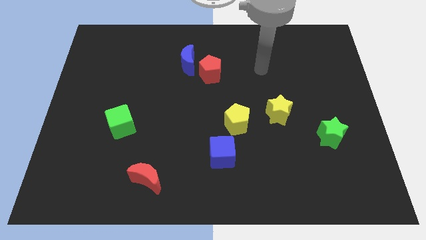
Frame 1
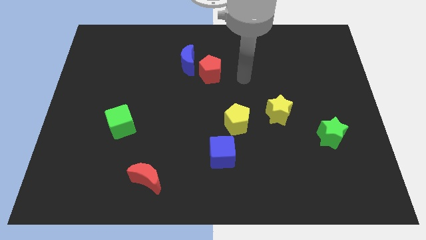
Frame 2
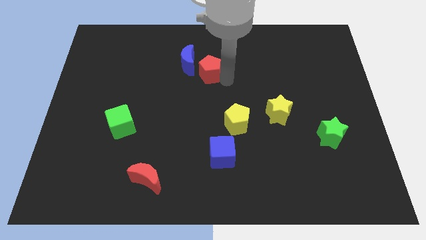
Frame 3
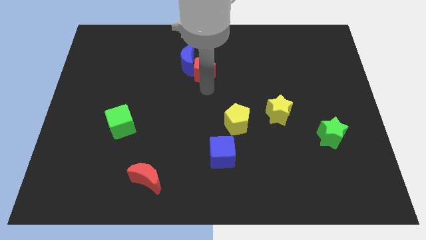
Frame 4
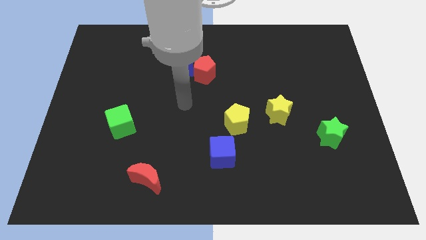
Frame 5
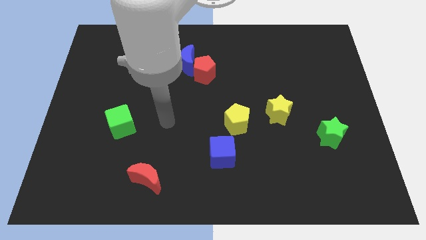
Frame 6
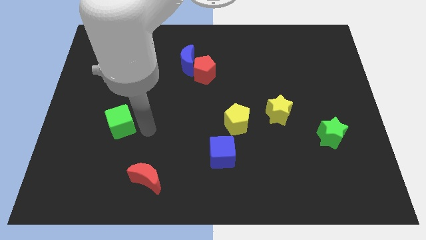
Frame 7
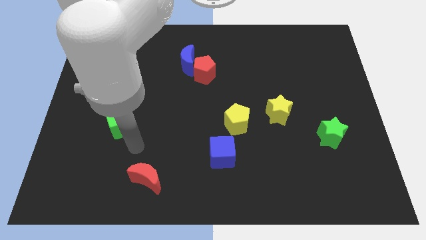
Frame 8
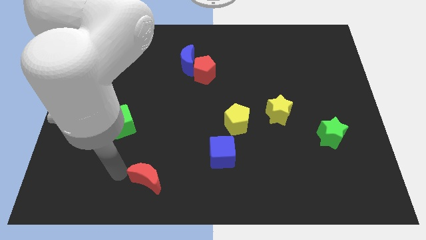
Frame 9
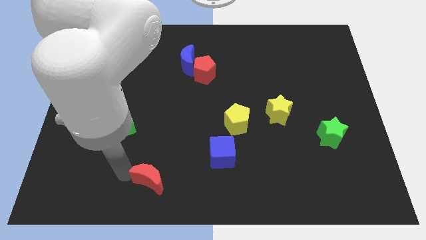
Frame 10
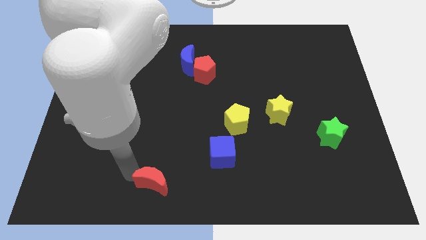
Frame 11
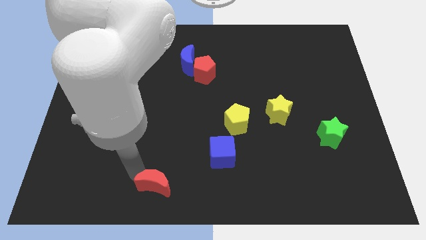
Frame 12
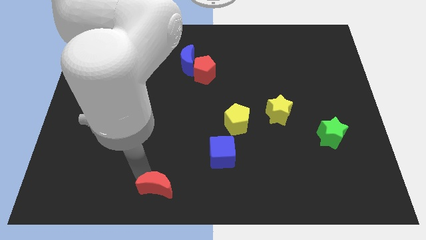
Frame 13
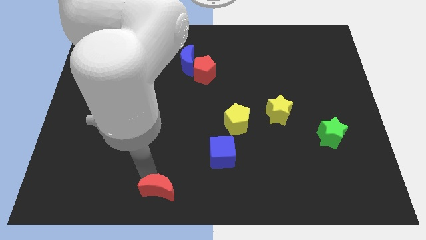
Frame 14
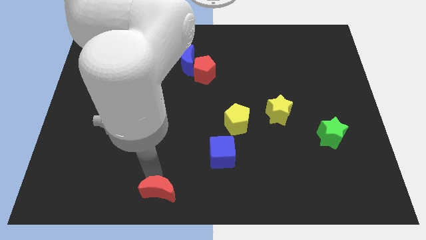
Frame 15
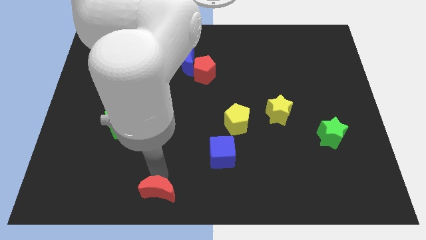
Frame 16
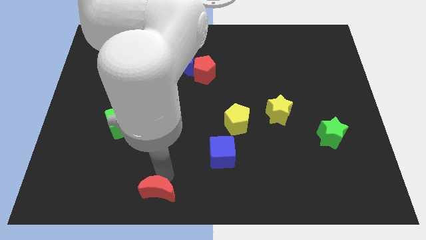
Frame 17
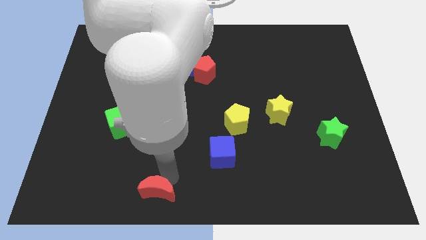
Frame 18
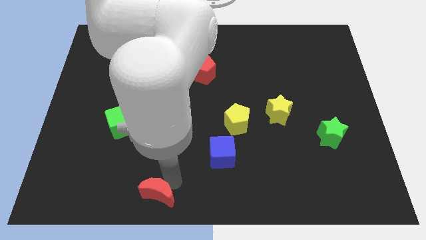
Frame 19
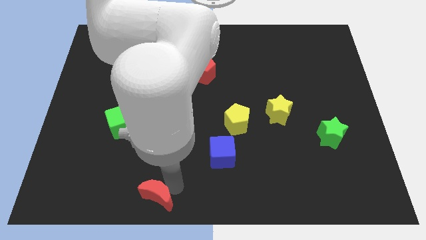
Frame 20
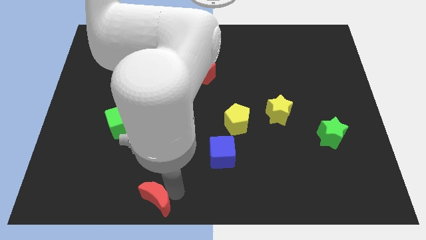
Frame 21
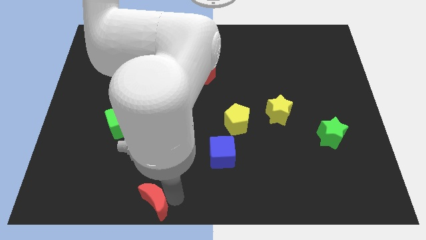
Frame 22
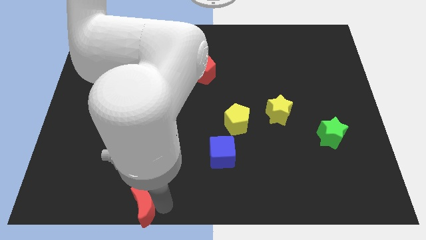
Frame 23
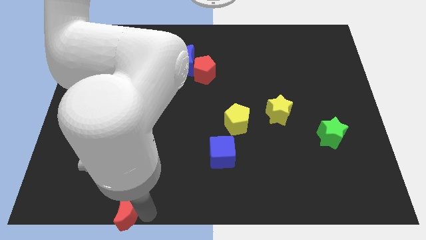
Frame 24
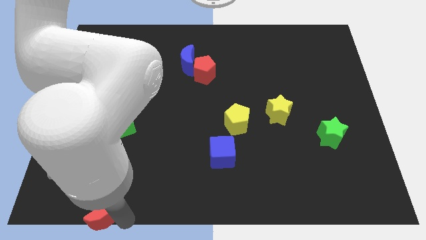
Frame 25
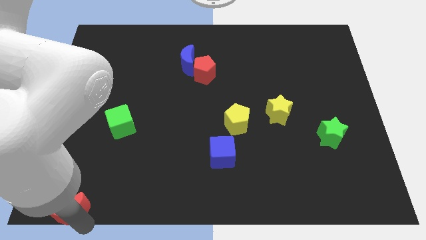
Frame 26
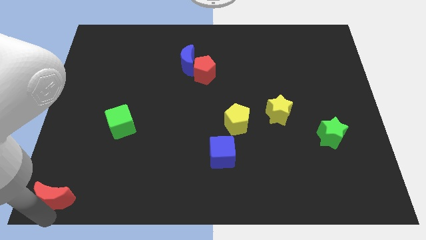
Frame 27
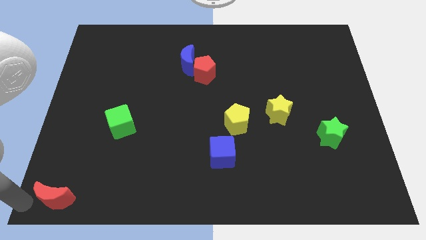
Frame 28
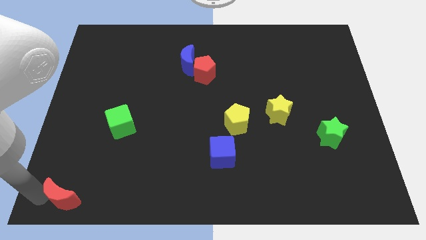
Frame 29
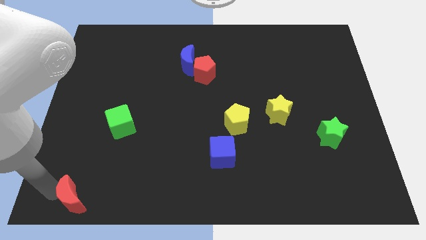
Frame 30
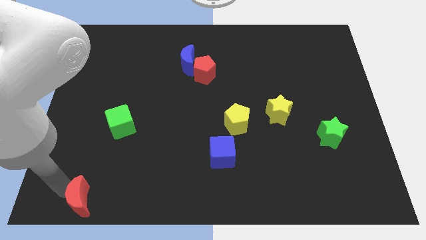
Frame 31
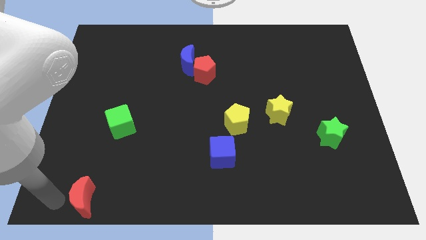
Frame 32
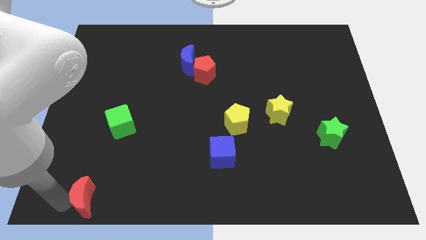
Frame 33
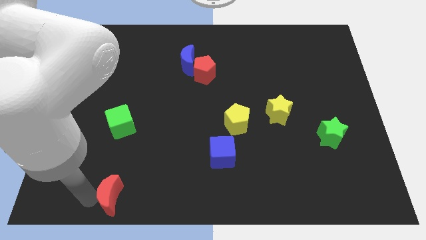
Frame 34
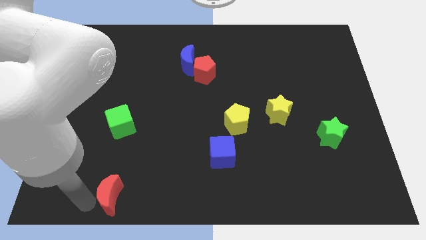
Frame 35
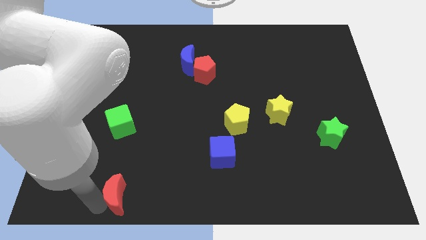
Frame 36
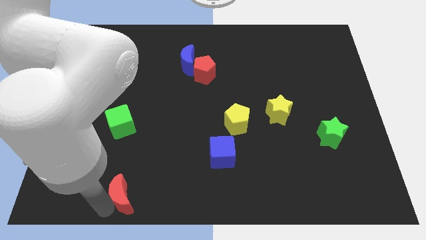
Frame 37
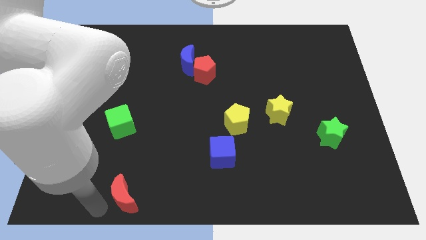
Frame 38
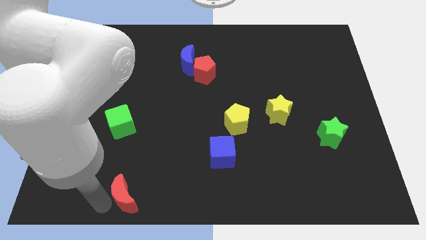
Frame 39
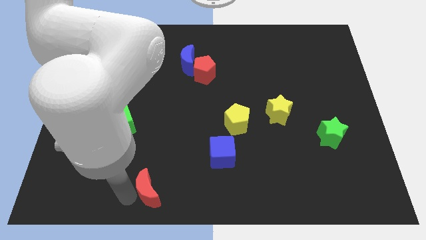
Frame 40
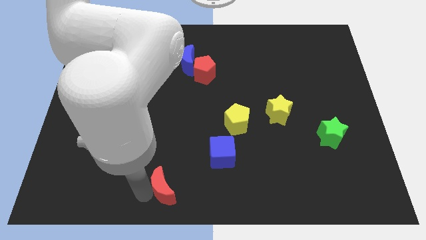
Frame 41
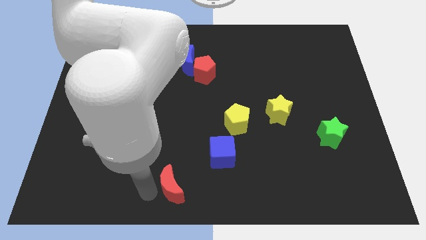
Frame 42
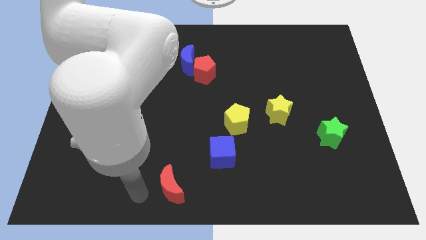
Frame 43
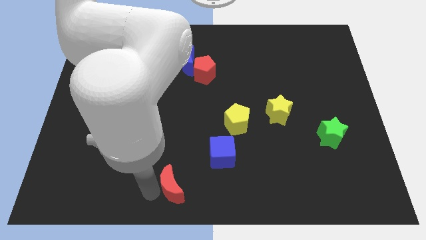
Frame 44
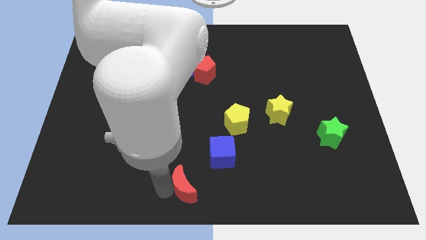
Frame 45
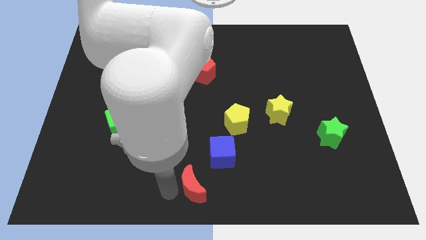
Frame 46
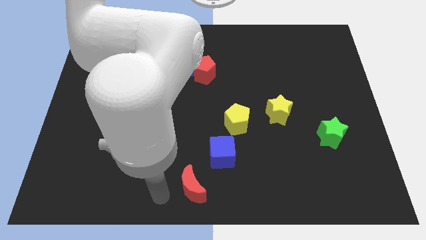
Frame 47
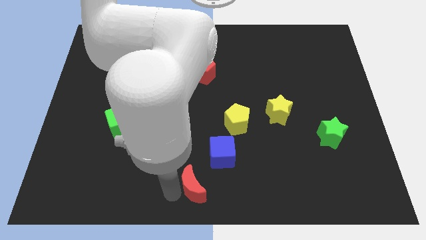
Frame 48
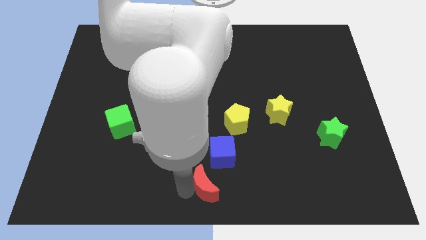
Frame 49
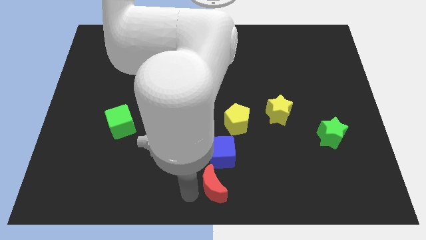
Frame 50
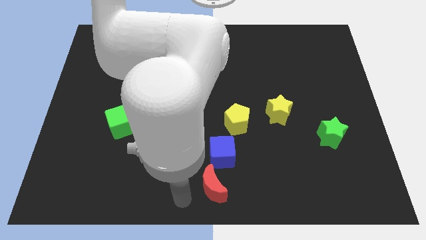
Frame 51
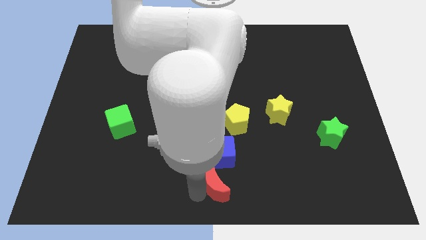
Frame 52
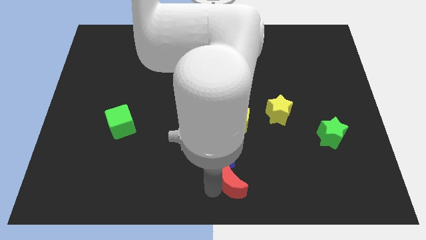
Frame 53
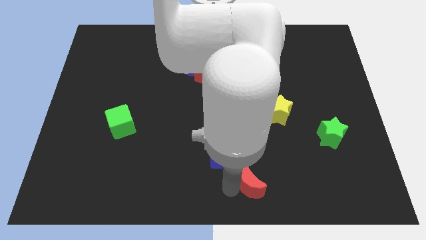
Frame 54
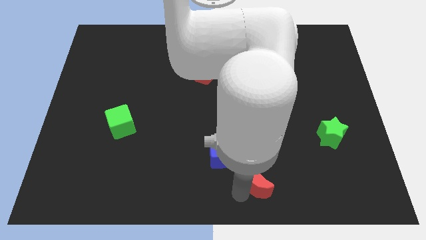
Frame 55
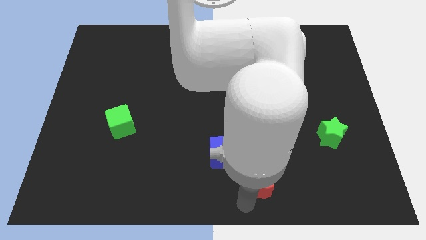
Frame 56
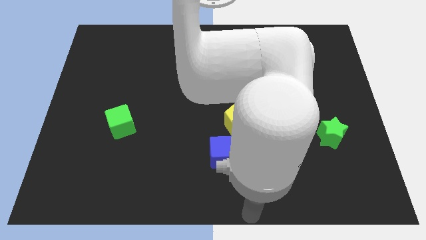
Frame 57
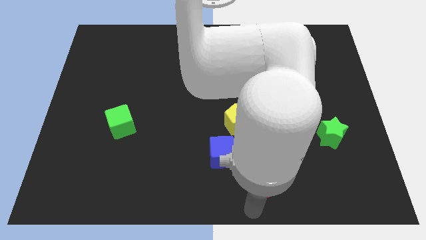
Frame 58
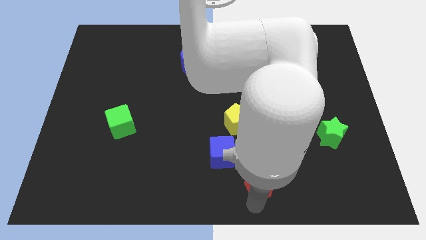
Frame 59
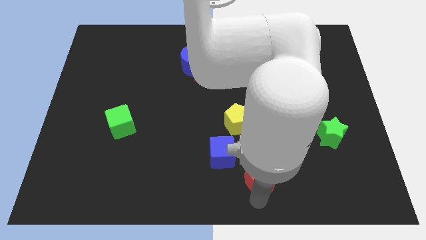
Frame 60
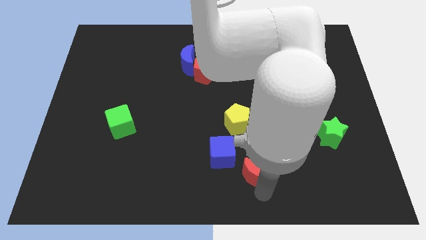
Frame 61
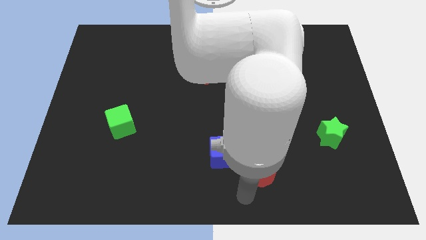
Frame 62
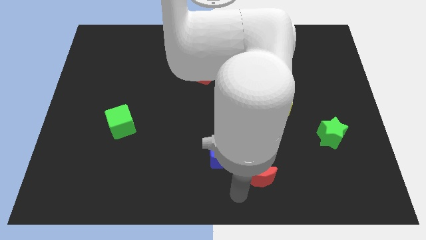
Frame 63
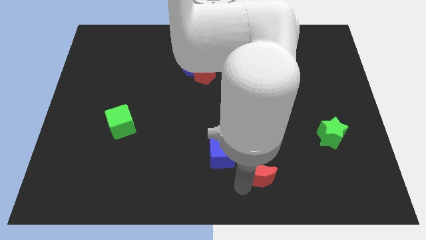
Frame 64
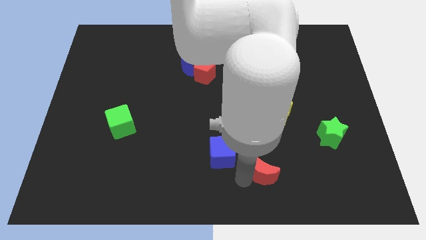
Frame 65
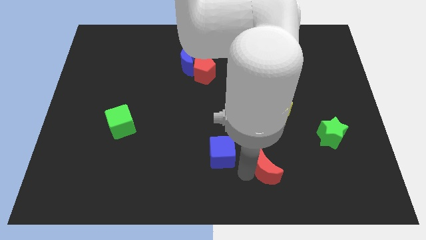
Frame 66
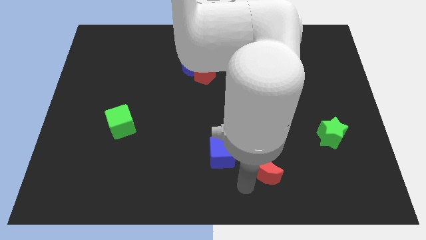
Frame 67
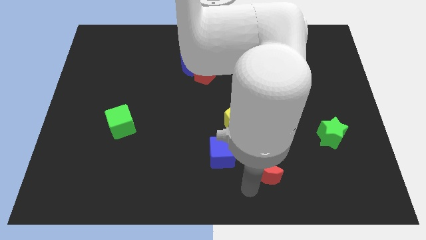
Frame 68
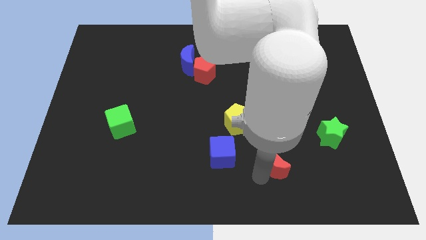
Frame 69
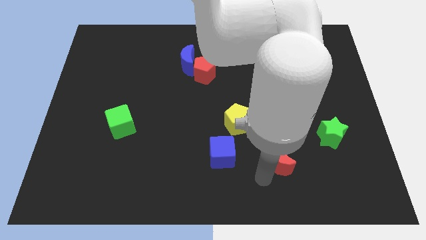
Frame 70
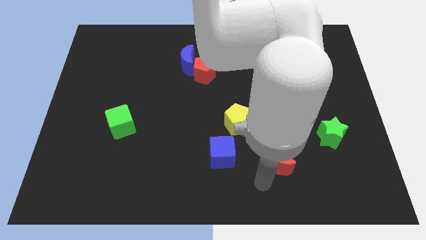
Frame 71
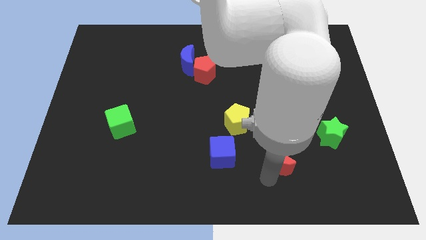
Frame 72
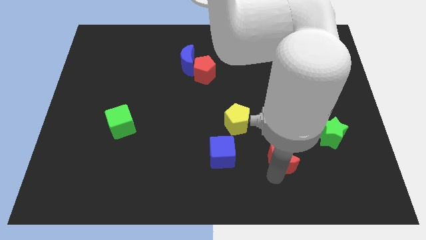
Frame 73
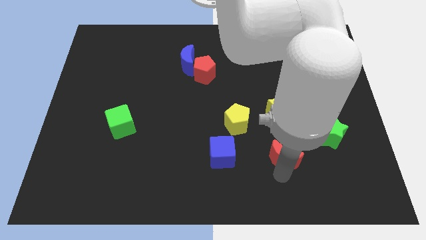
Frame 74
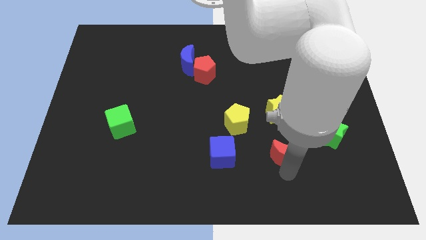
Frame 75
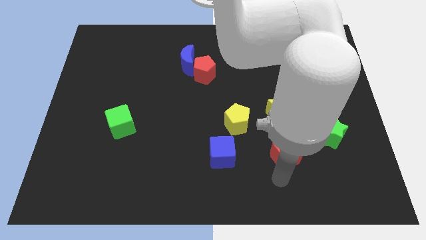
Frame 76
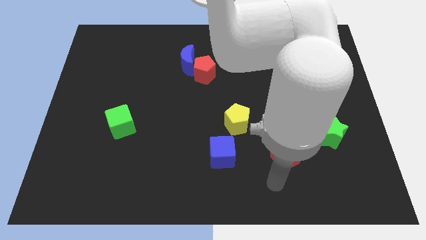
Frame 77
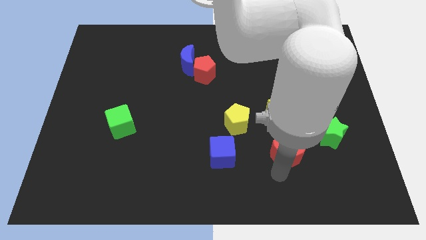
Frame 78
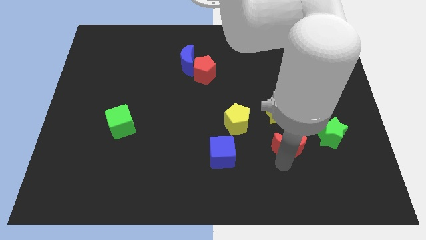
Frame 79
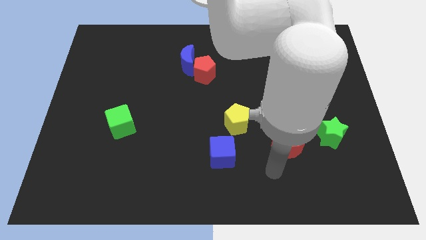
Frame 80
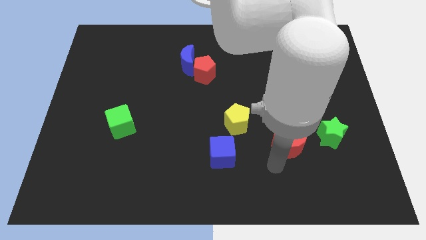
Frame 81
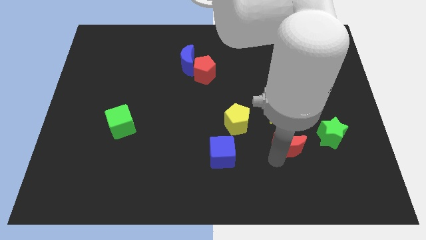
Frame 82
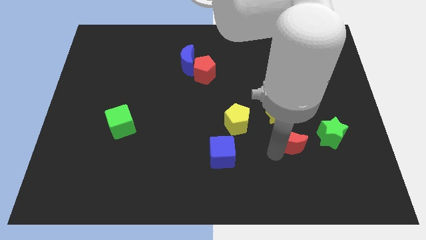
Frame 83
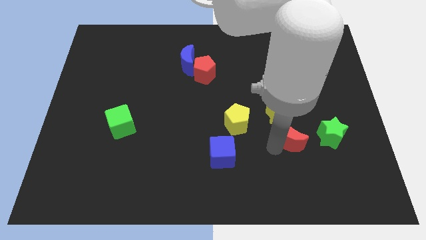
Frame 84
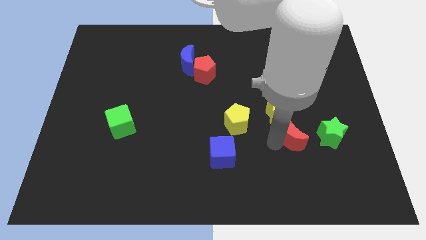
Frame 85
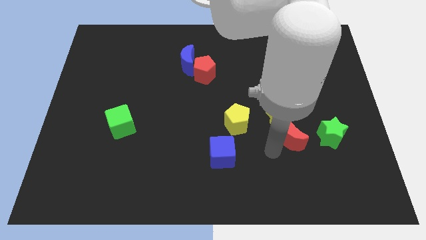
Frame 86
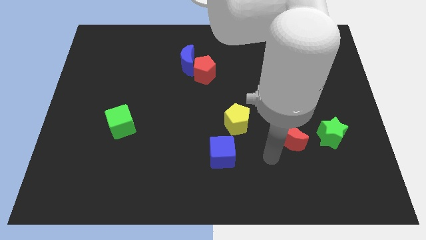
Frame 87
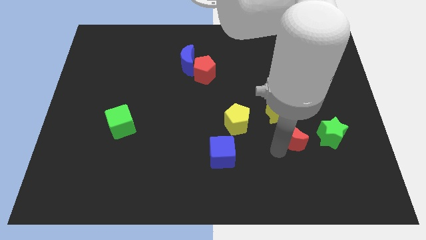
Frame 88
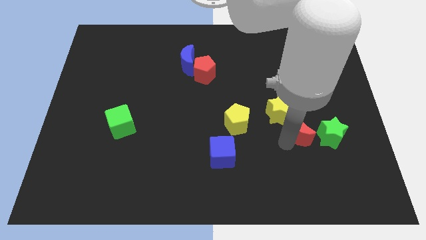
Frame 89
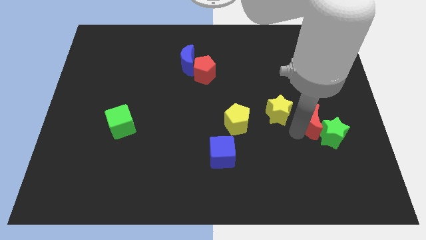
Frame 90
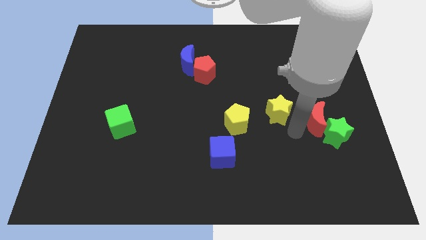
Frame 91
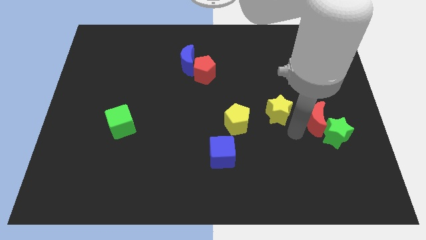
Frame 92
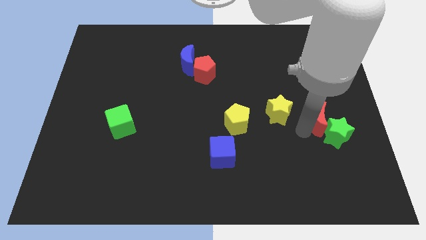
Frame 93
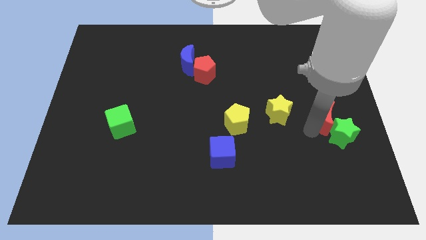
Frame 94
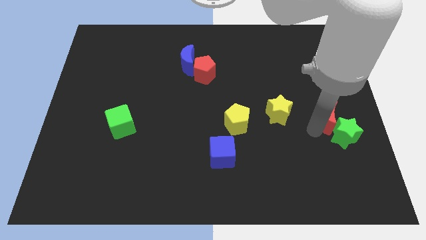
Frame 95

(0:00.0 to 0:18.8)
put the red moon to the center right
